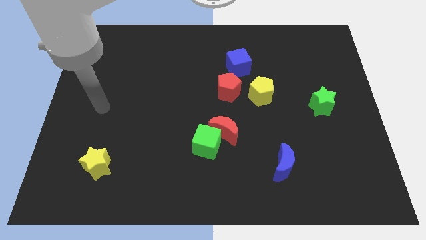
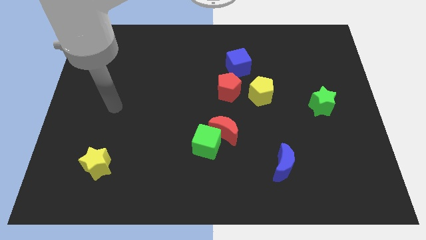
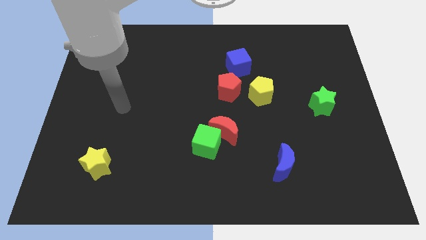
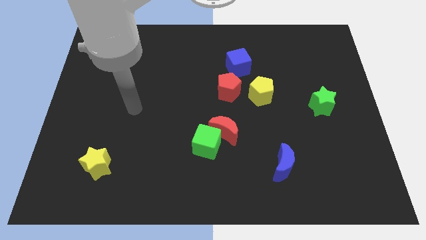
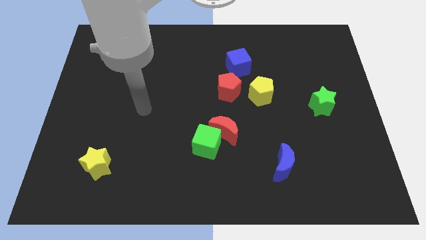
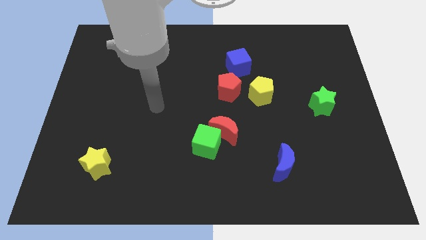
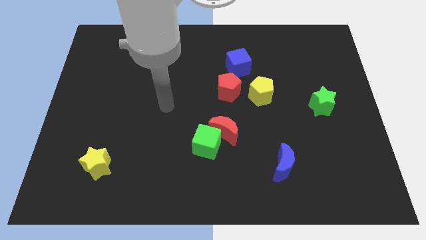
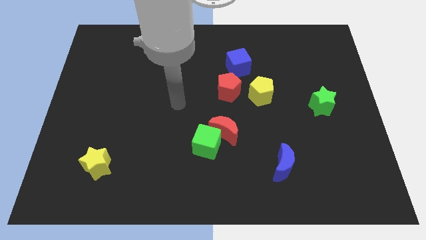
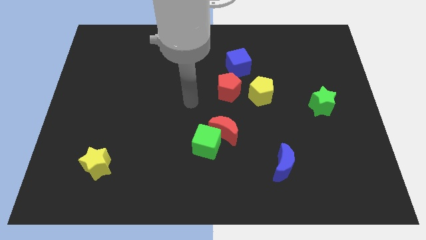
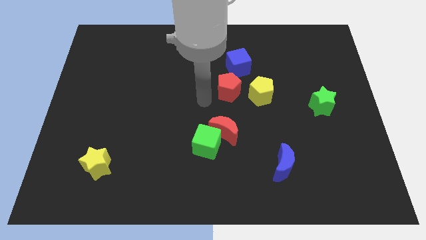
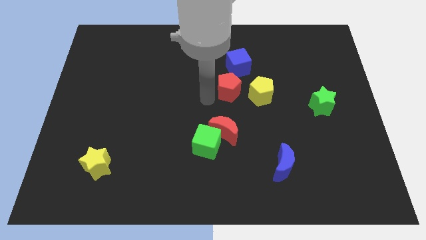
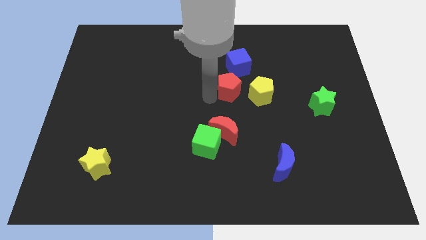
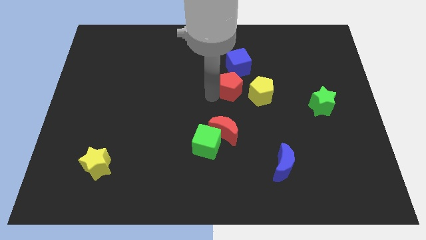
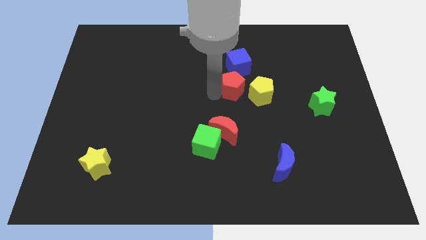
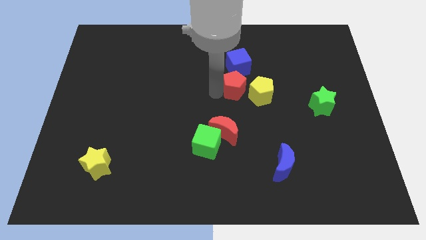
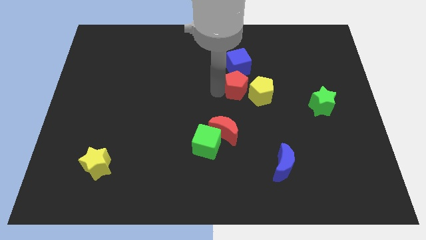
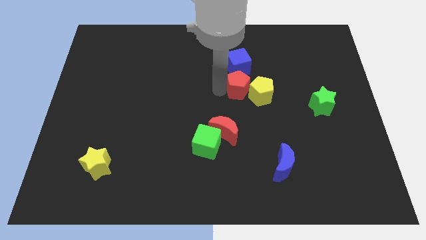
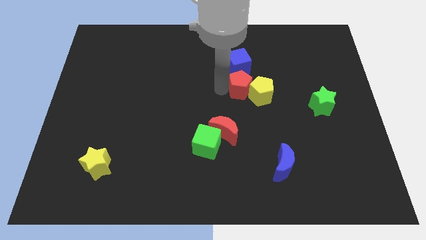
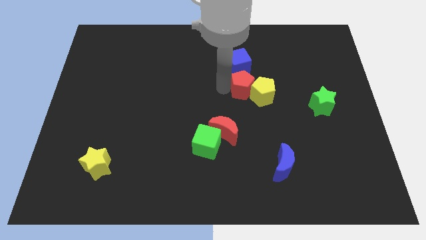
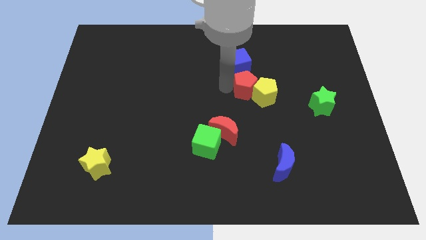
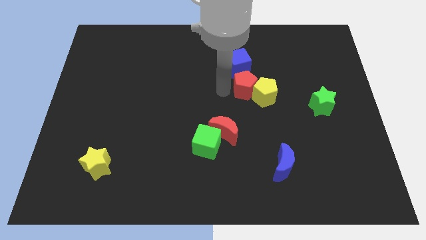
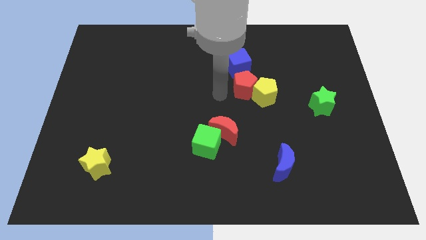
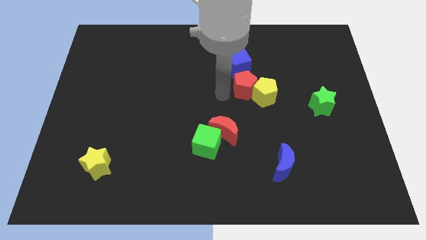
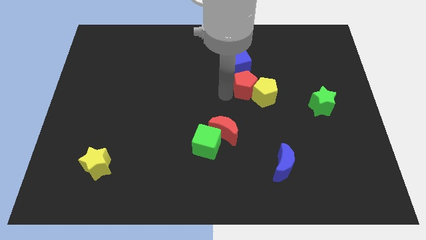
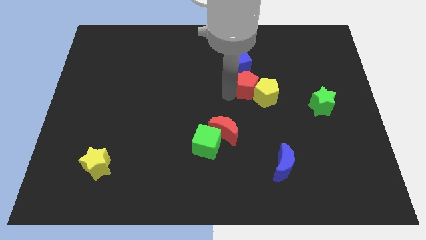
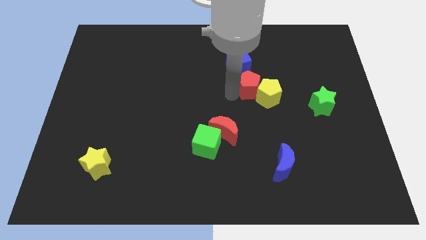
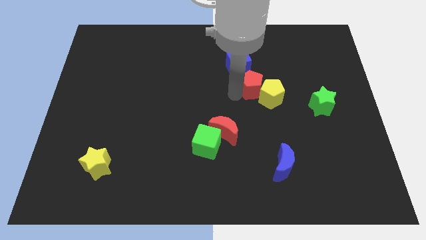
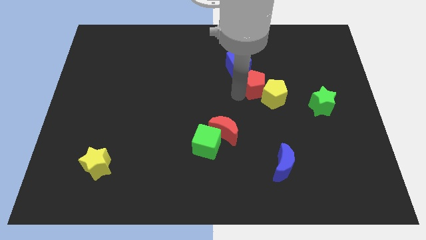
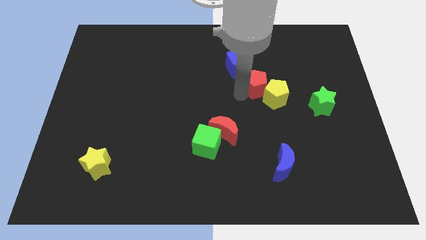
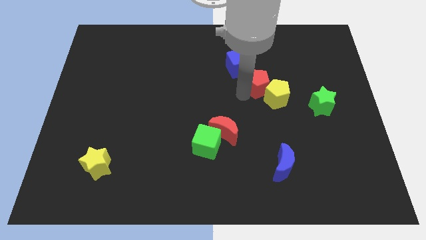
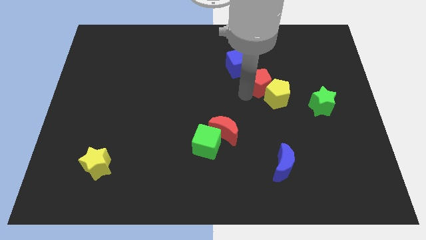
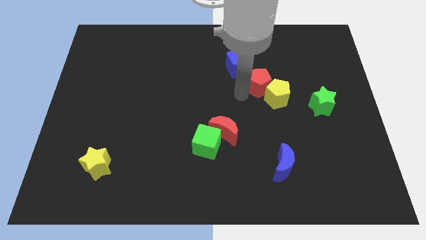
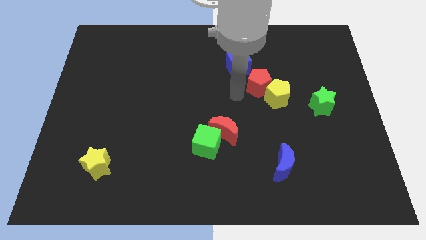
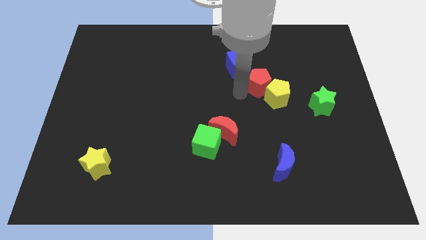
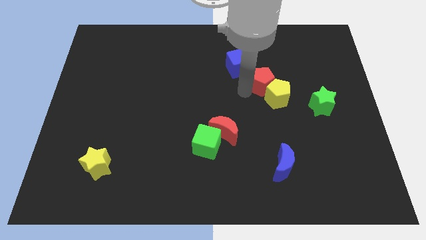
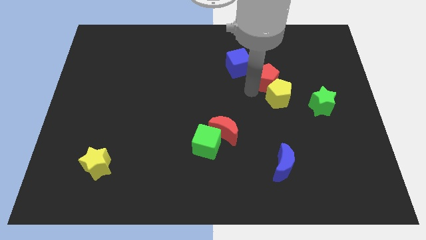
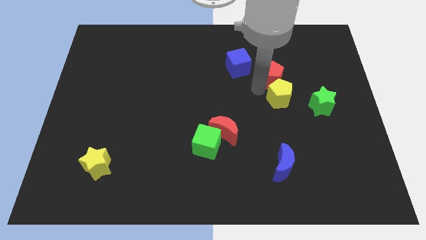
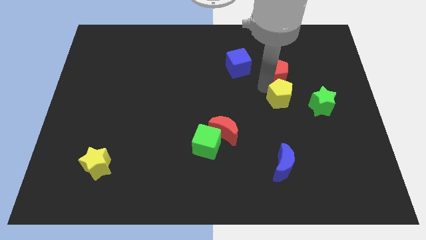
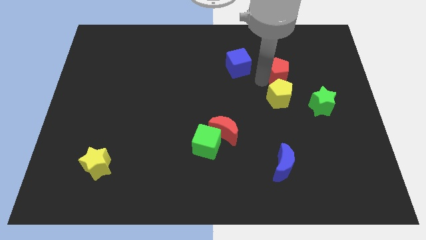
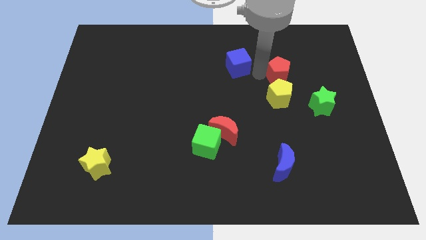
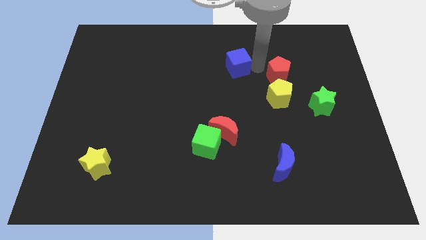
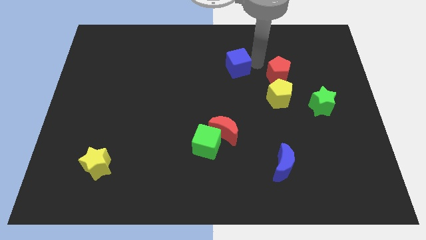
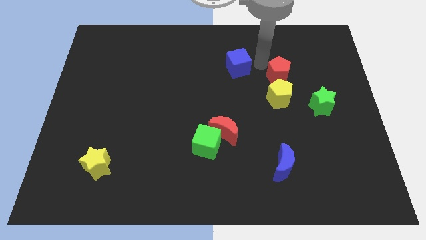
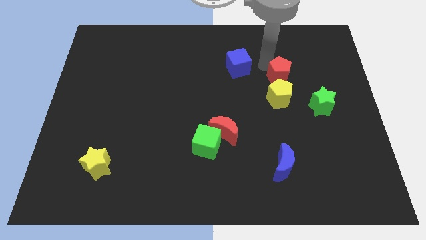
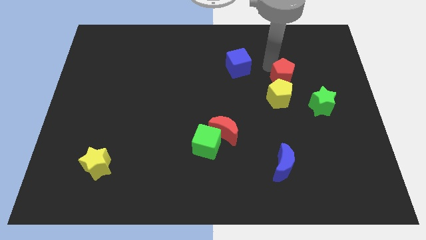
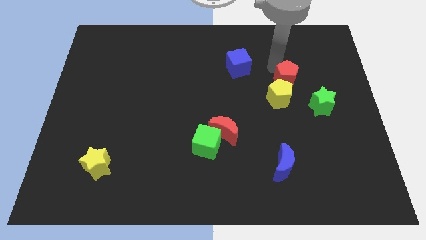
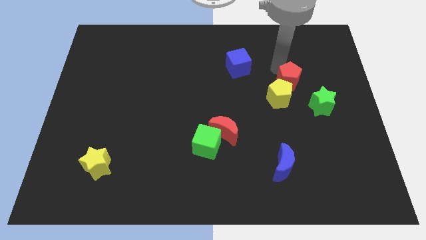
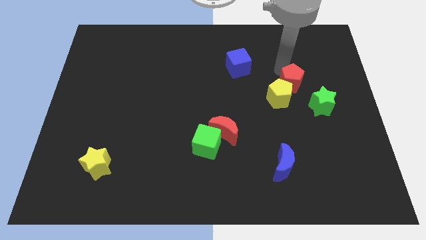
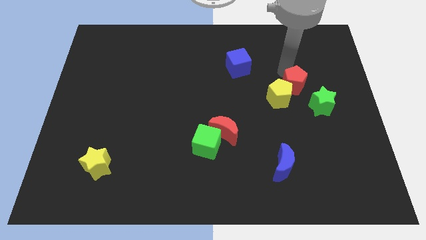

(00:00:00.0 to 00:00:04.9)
slide the red pentagon to the right side of the yellow pentagon

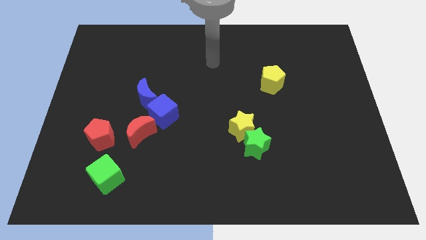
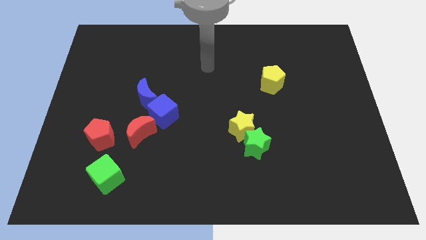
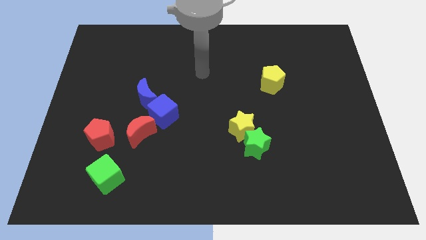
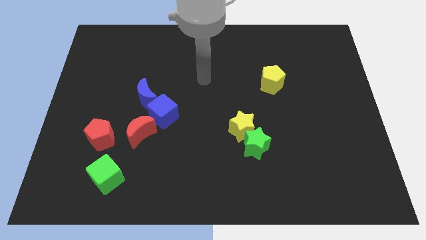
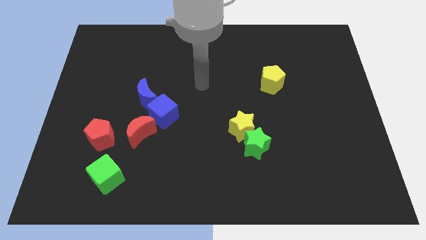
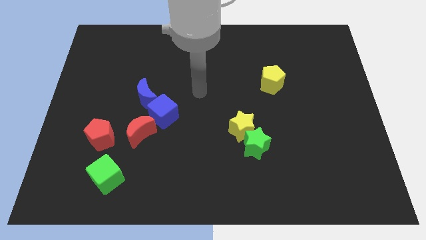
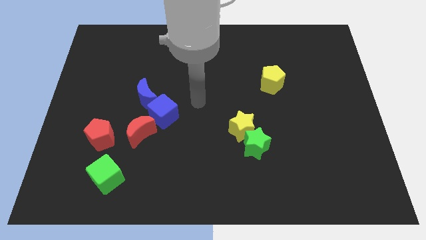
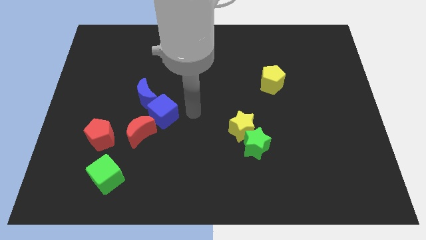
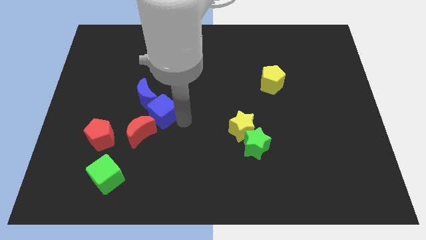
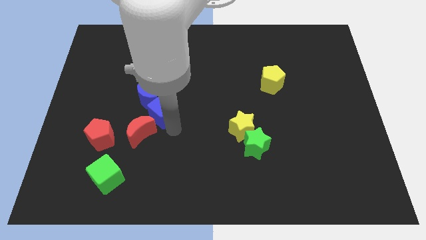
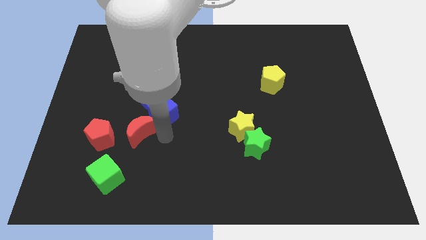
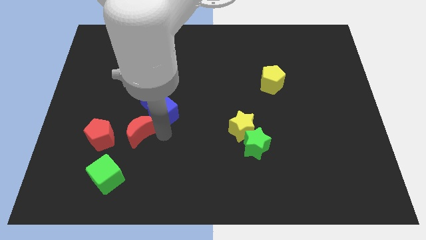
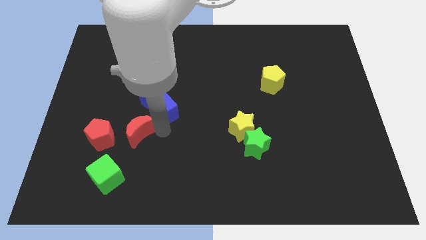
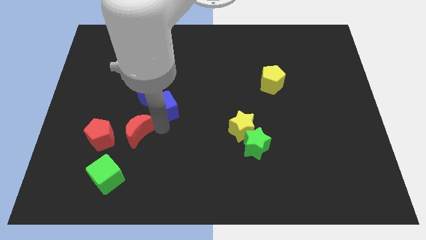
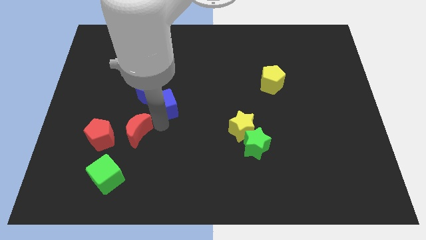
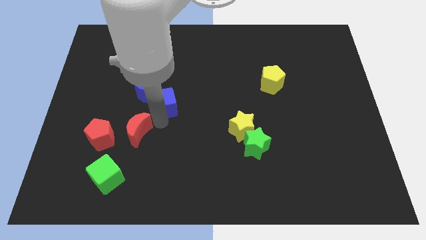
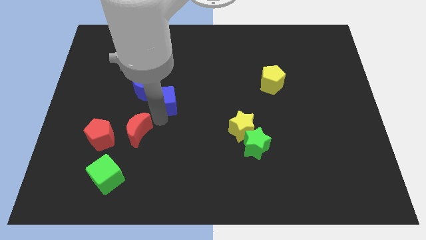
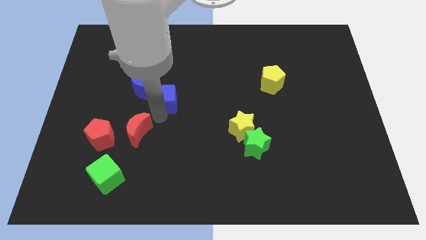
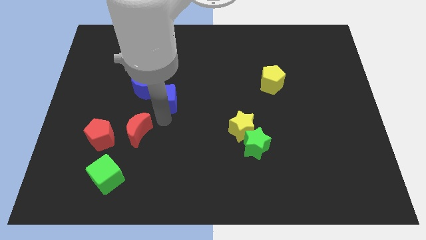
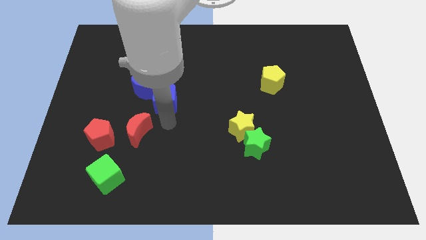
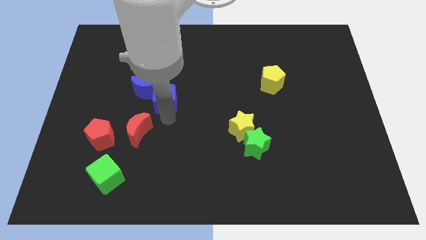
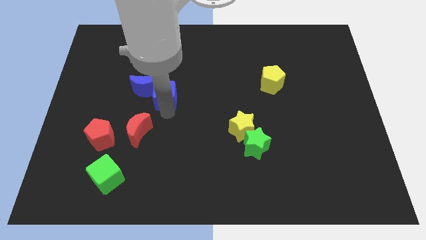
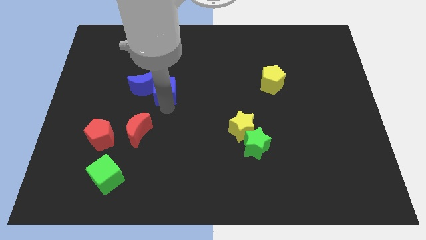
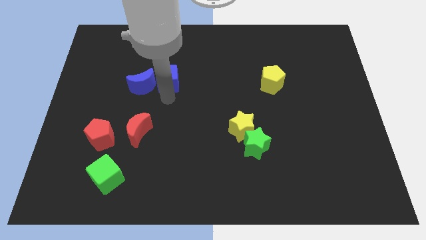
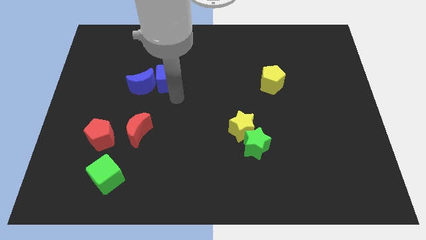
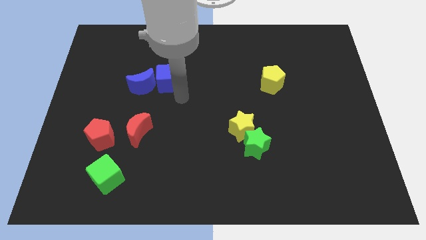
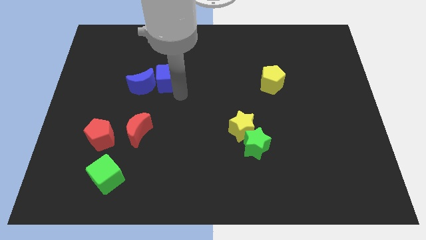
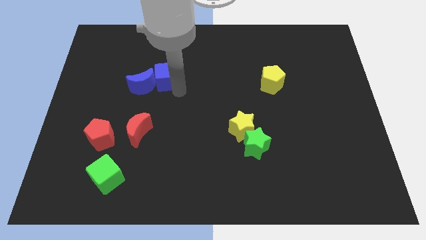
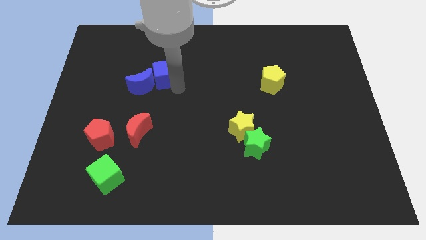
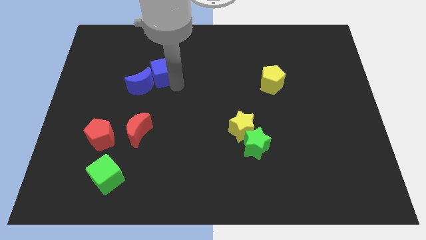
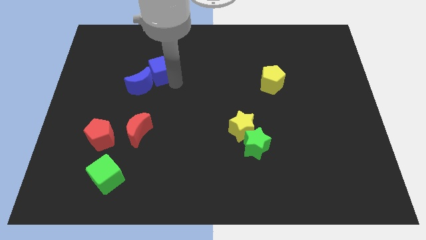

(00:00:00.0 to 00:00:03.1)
put the blue cube to the top of the blue moon
